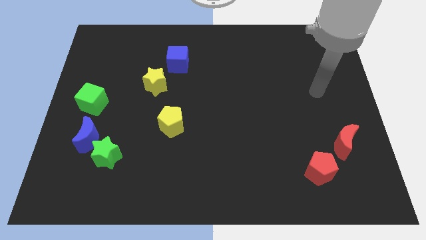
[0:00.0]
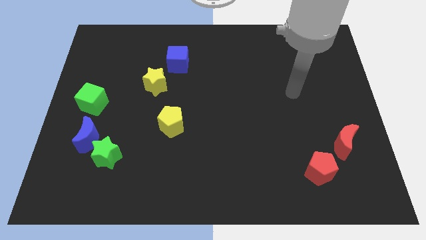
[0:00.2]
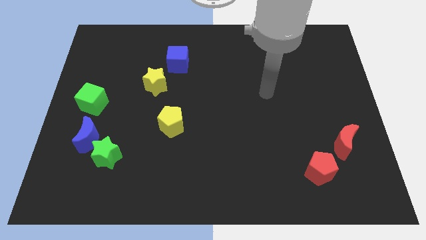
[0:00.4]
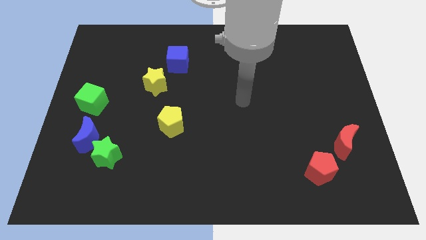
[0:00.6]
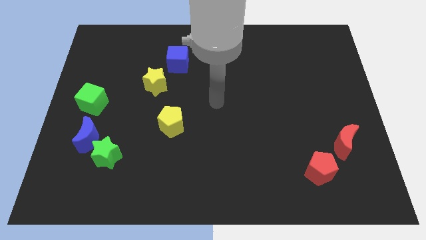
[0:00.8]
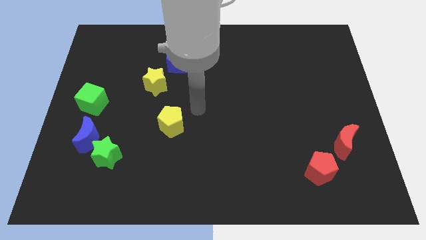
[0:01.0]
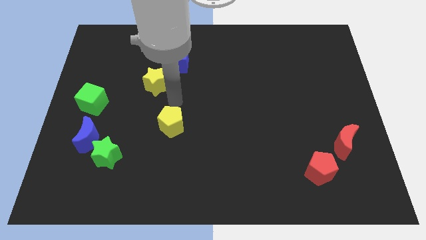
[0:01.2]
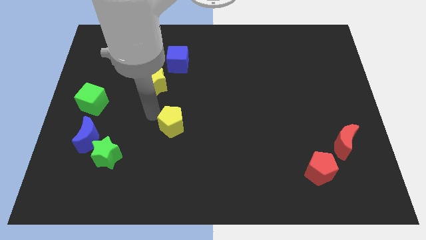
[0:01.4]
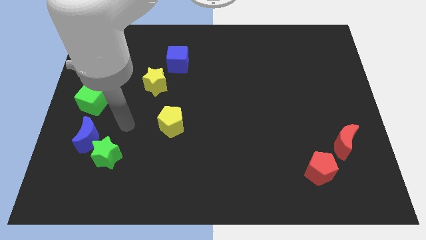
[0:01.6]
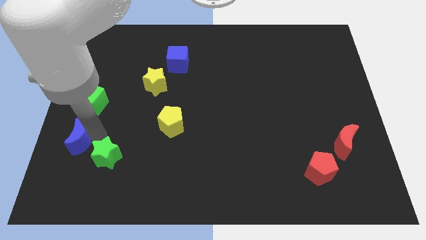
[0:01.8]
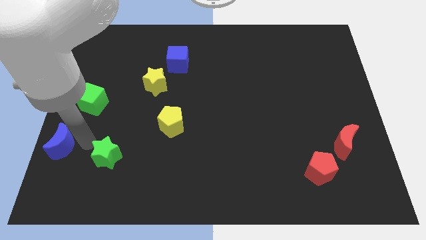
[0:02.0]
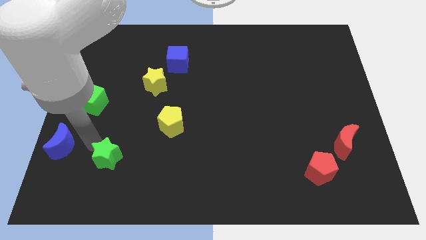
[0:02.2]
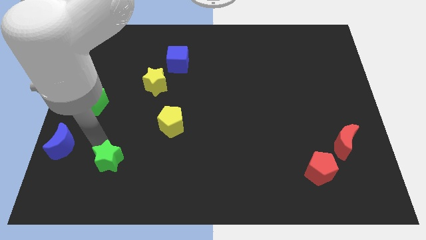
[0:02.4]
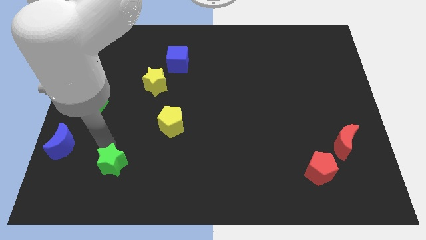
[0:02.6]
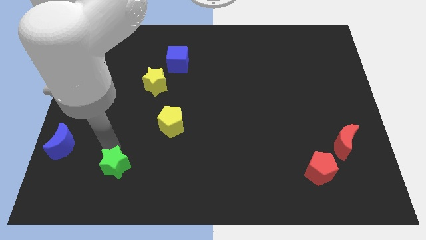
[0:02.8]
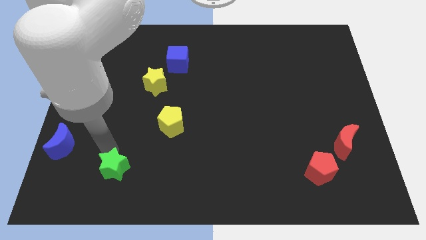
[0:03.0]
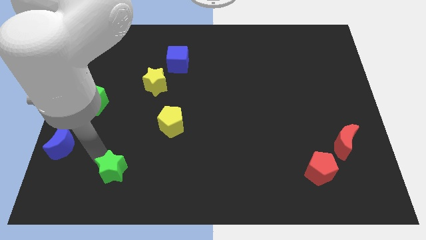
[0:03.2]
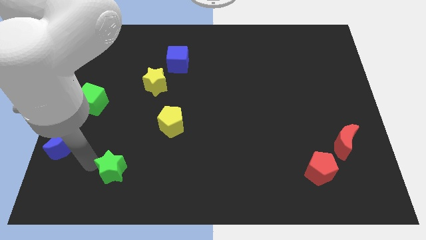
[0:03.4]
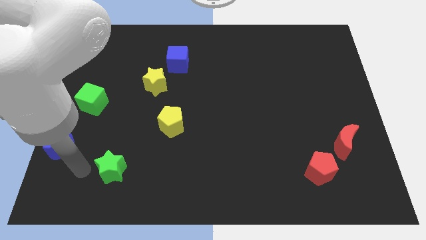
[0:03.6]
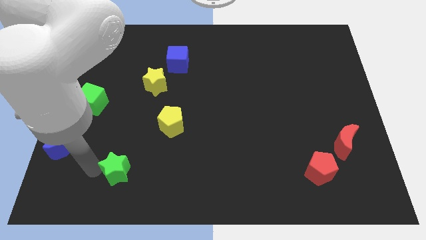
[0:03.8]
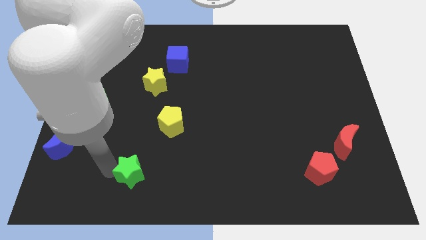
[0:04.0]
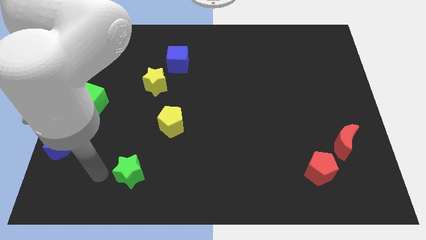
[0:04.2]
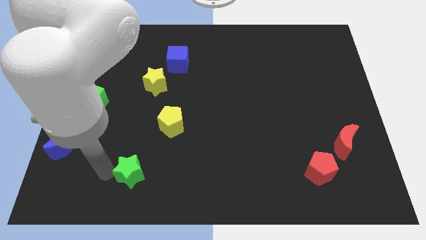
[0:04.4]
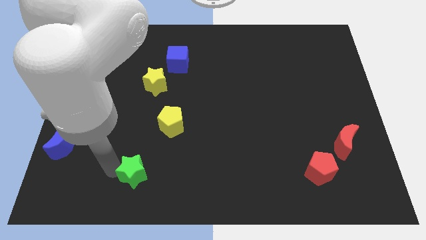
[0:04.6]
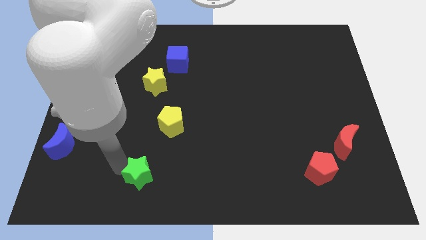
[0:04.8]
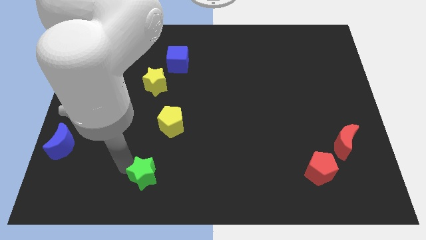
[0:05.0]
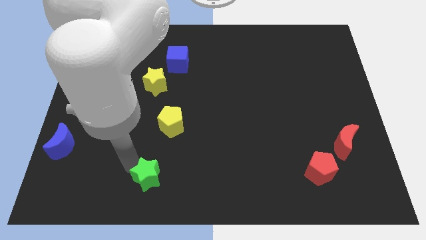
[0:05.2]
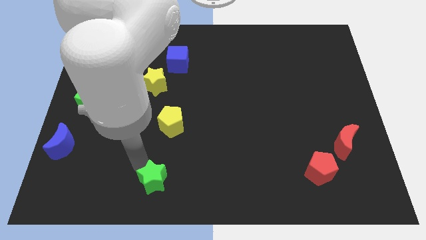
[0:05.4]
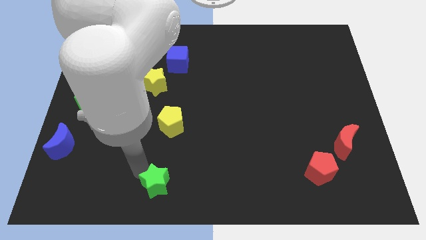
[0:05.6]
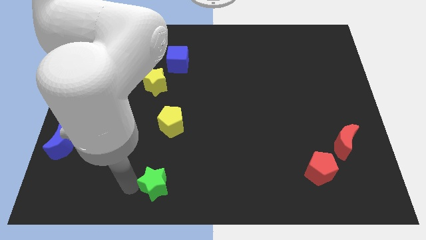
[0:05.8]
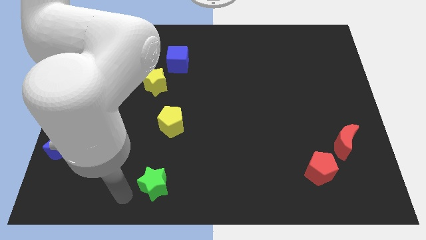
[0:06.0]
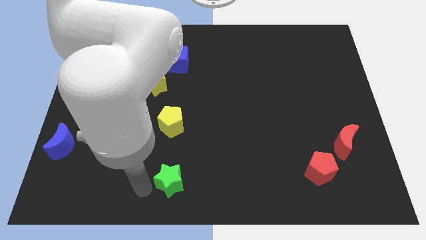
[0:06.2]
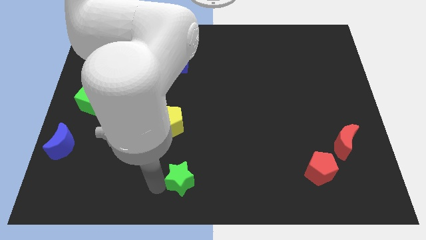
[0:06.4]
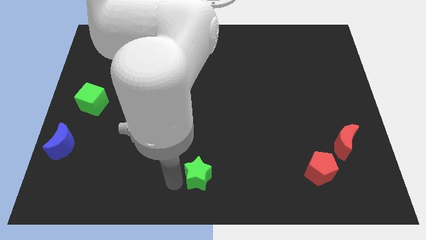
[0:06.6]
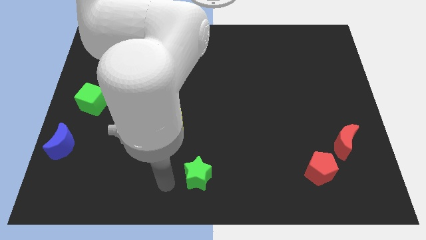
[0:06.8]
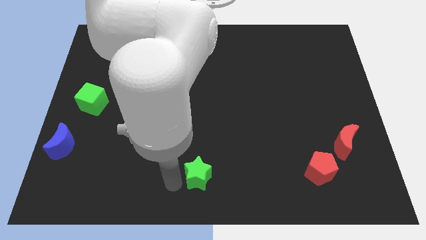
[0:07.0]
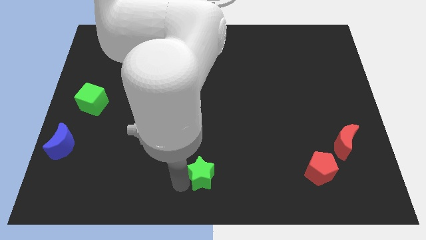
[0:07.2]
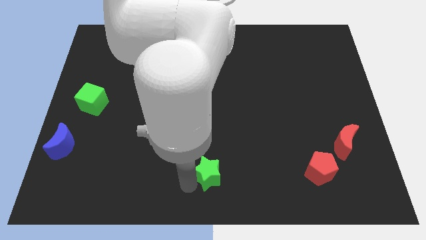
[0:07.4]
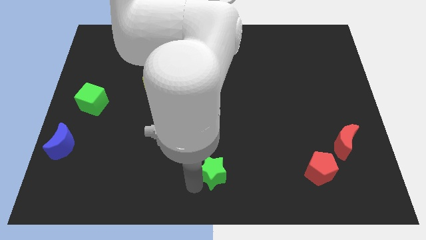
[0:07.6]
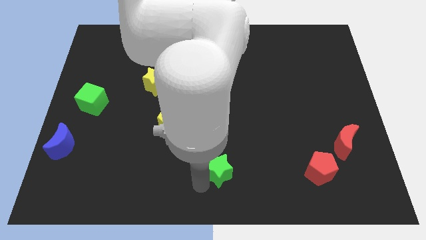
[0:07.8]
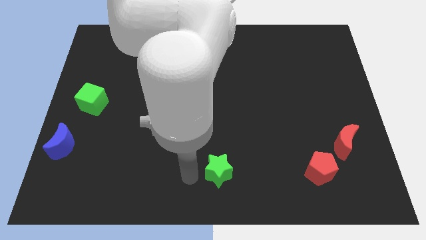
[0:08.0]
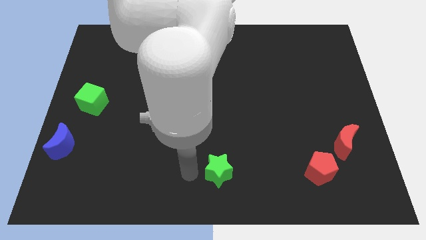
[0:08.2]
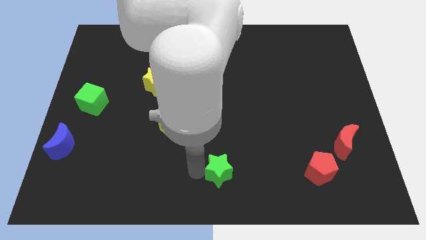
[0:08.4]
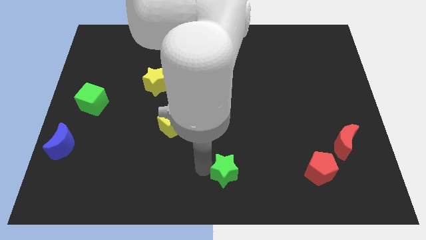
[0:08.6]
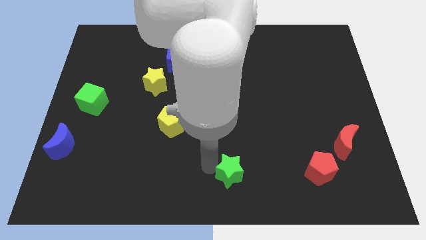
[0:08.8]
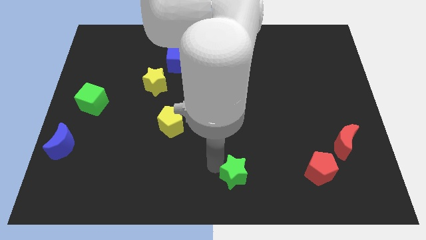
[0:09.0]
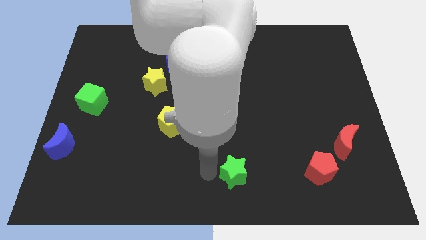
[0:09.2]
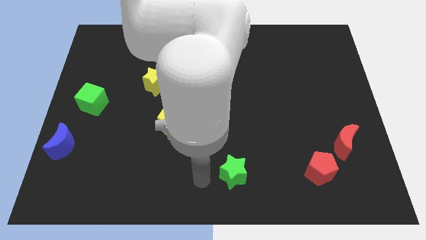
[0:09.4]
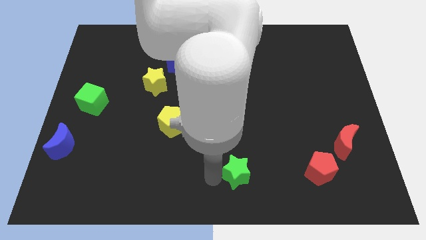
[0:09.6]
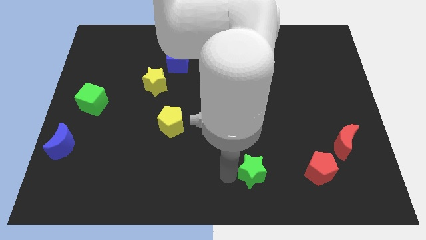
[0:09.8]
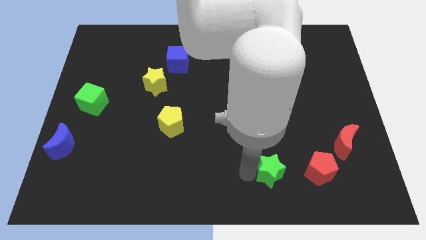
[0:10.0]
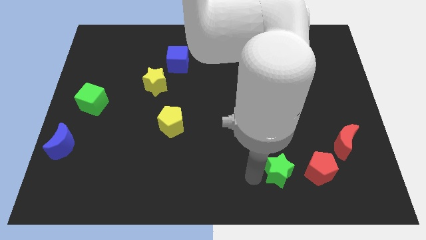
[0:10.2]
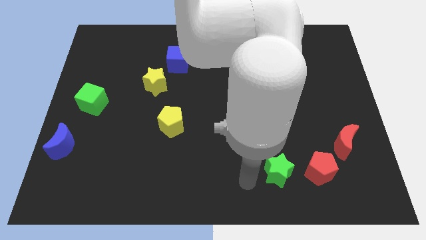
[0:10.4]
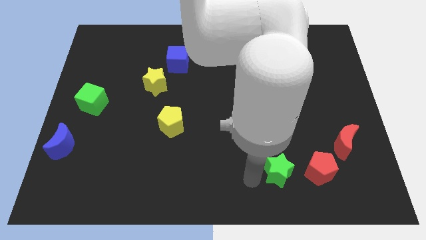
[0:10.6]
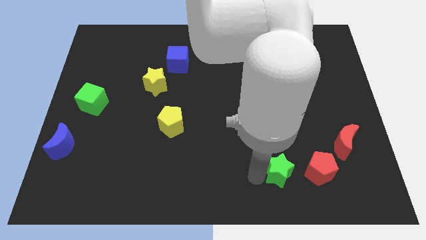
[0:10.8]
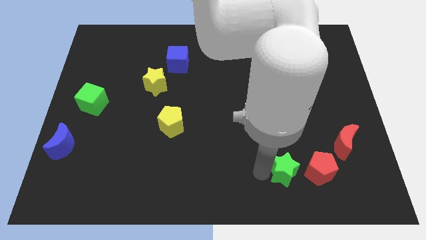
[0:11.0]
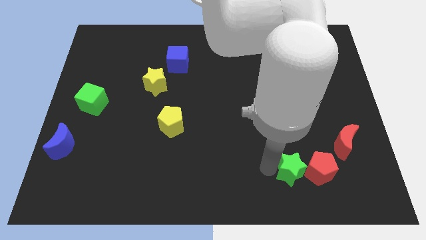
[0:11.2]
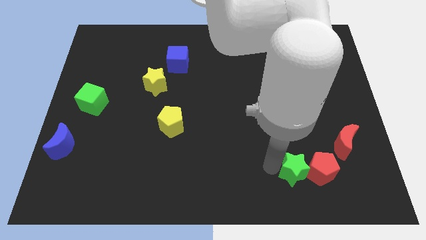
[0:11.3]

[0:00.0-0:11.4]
push the green star close to the red pentagon

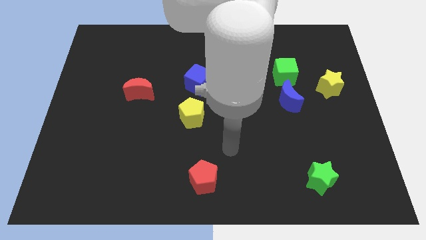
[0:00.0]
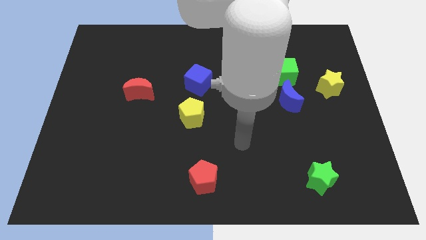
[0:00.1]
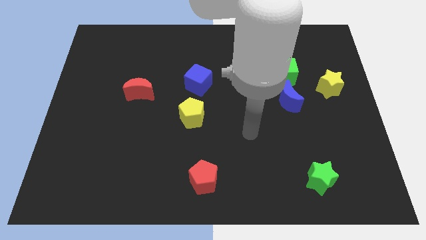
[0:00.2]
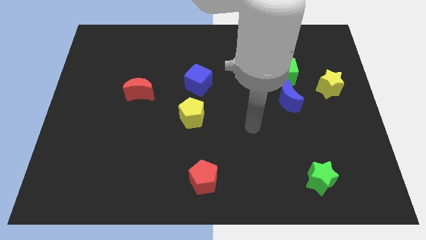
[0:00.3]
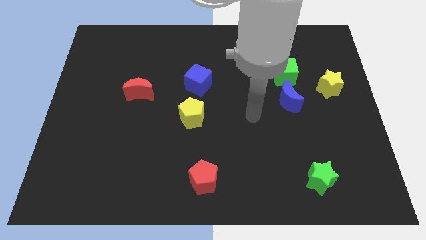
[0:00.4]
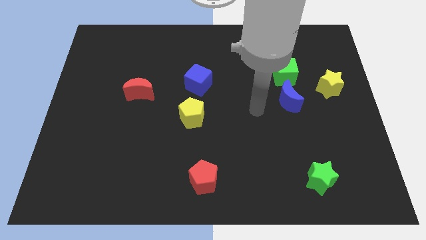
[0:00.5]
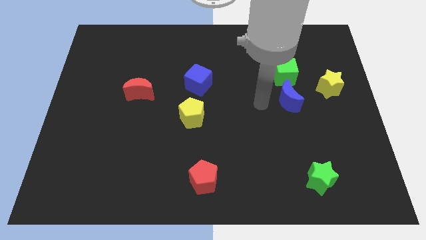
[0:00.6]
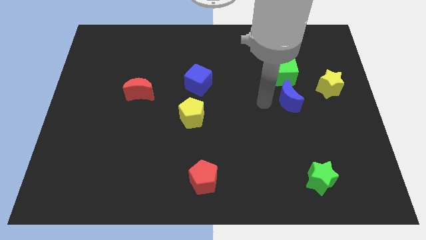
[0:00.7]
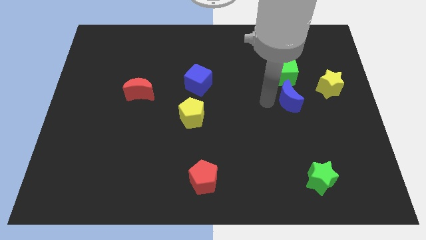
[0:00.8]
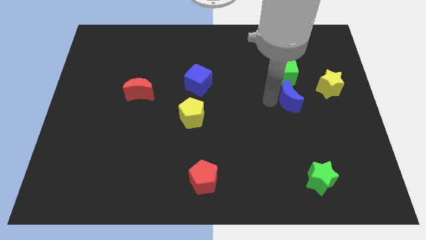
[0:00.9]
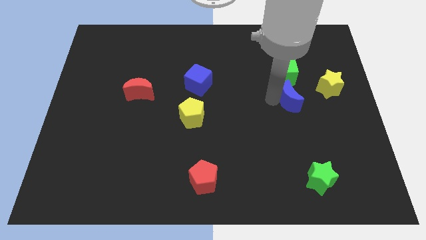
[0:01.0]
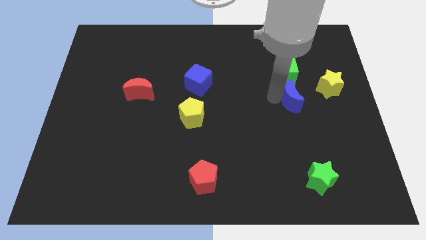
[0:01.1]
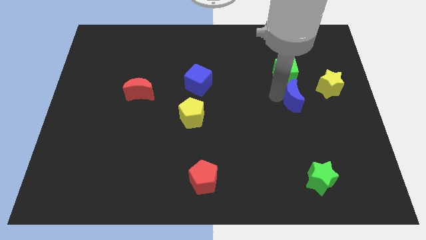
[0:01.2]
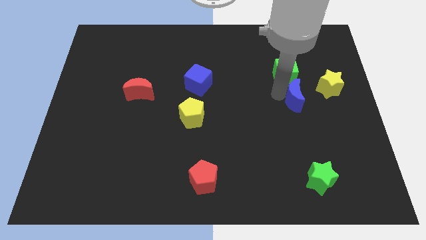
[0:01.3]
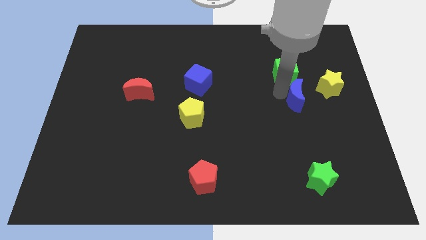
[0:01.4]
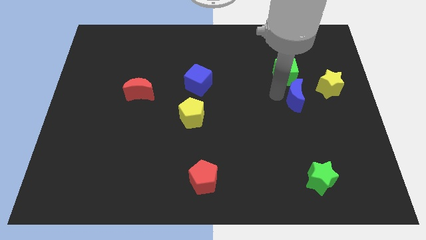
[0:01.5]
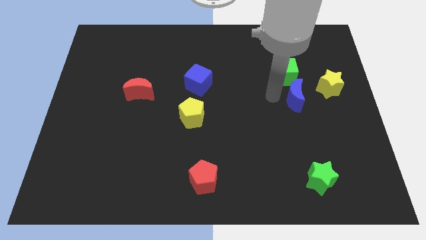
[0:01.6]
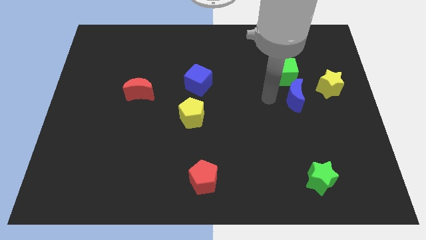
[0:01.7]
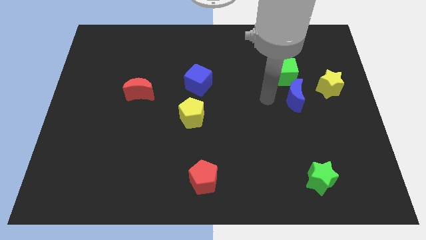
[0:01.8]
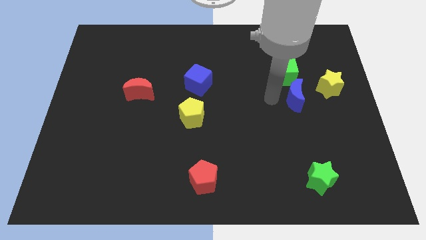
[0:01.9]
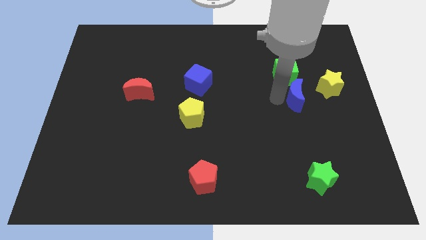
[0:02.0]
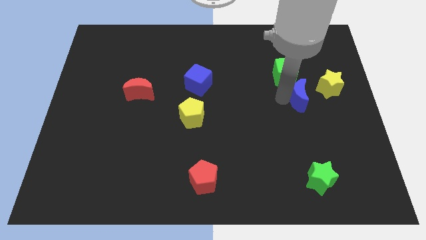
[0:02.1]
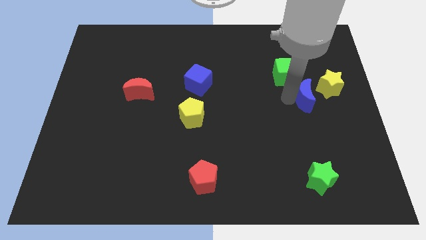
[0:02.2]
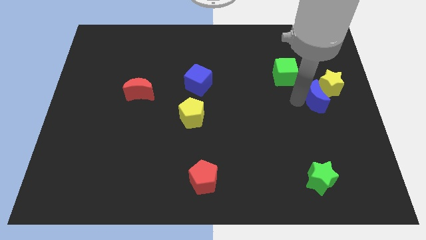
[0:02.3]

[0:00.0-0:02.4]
move the blue moon to the yellow star
